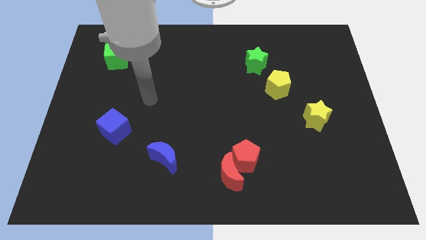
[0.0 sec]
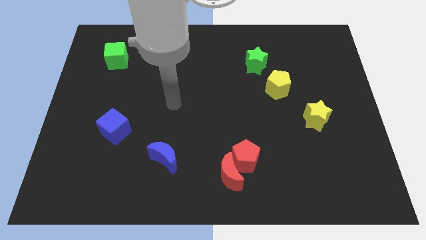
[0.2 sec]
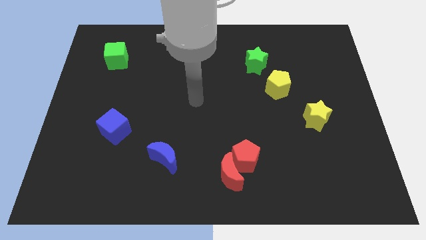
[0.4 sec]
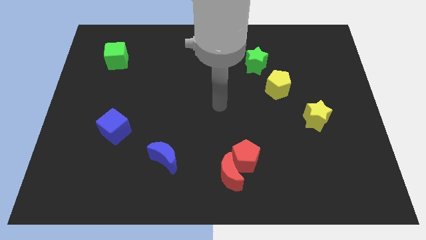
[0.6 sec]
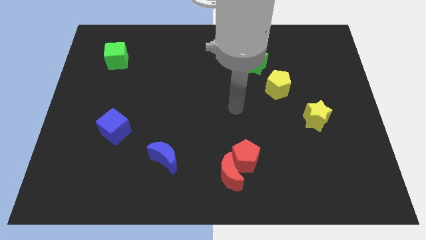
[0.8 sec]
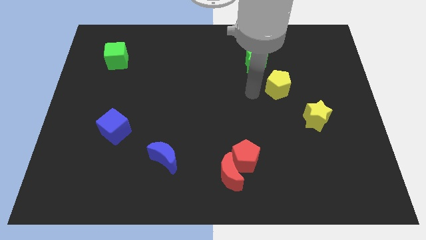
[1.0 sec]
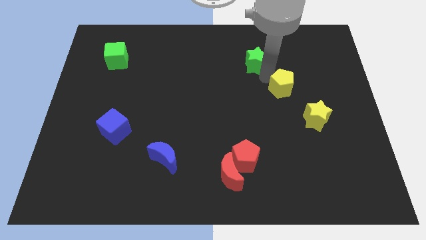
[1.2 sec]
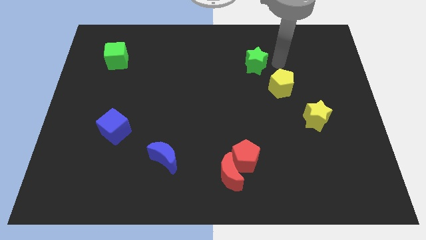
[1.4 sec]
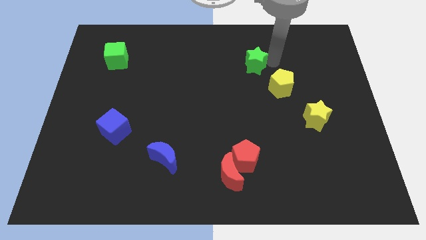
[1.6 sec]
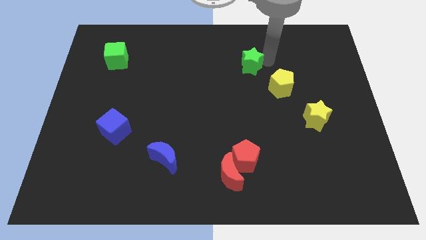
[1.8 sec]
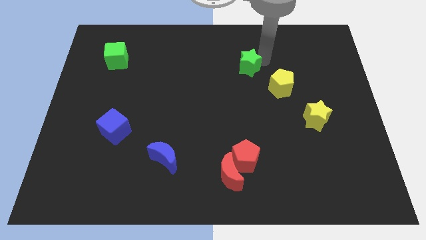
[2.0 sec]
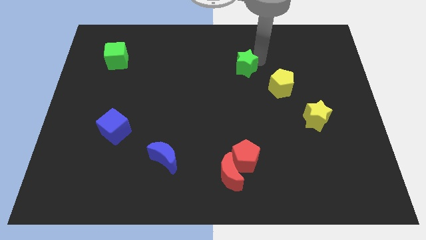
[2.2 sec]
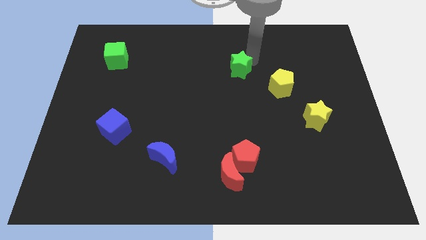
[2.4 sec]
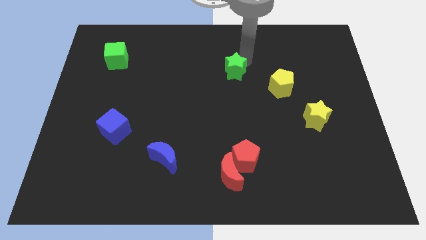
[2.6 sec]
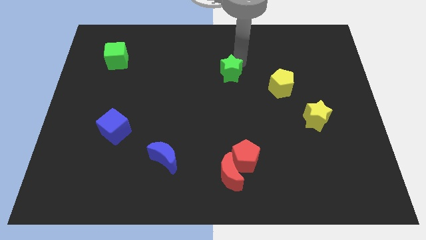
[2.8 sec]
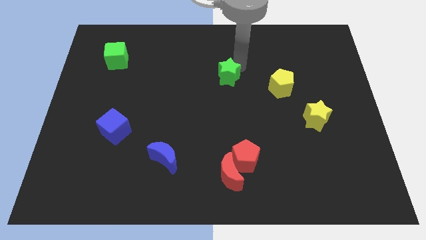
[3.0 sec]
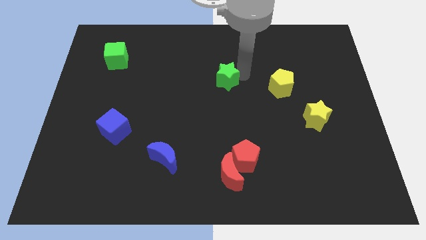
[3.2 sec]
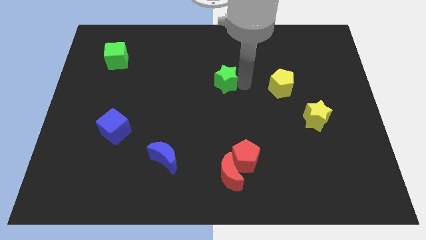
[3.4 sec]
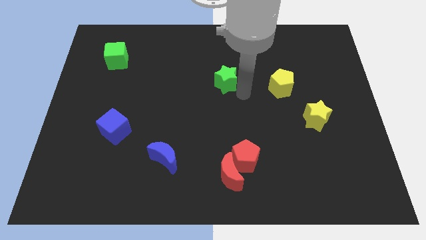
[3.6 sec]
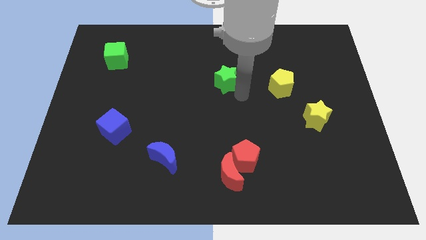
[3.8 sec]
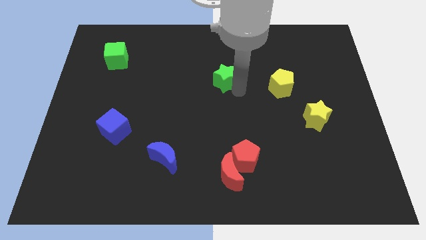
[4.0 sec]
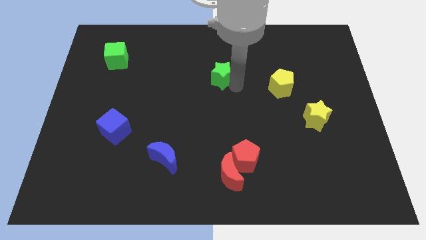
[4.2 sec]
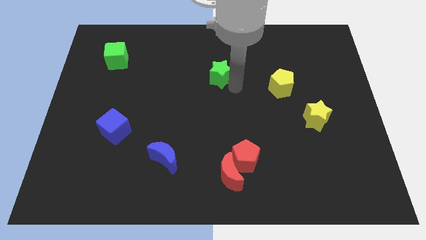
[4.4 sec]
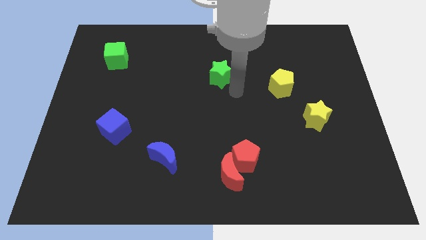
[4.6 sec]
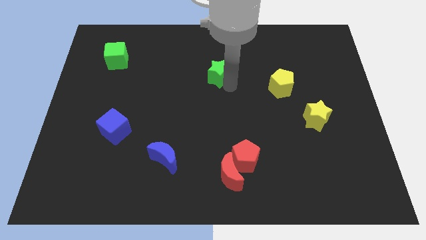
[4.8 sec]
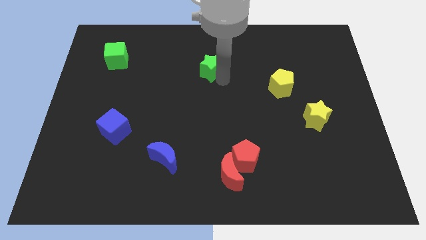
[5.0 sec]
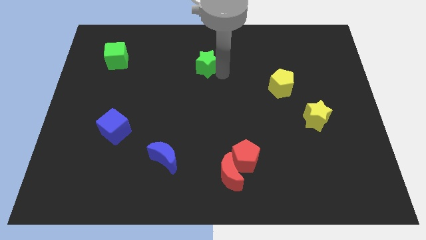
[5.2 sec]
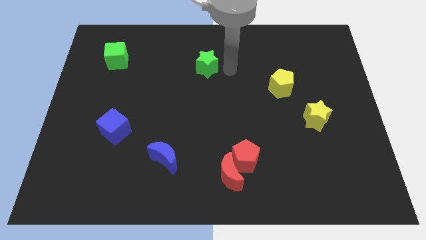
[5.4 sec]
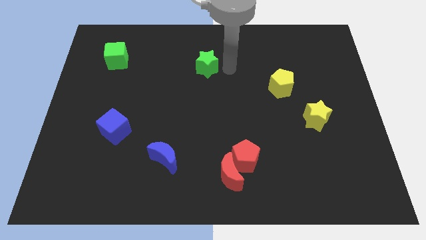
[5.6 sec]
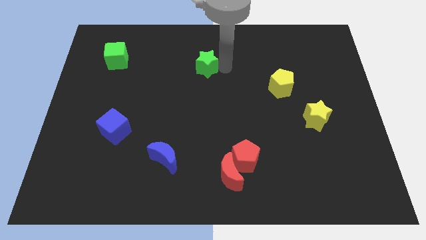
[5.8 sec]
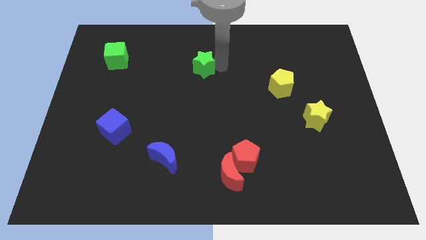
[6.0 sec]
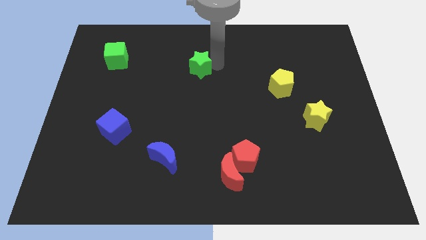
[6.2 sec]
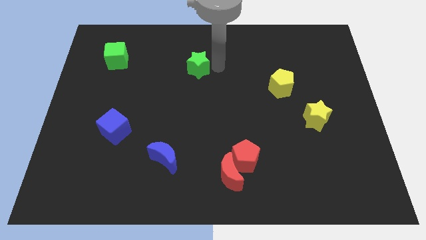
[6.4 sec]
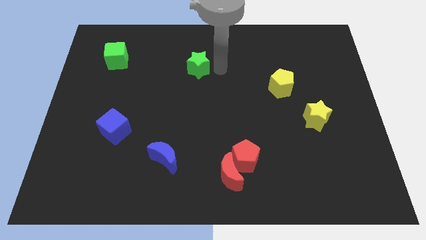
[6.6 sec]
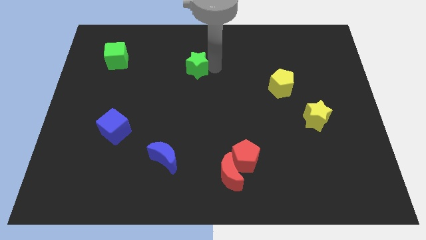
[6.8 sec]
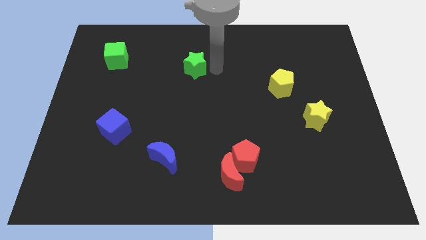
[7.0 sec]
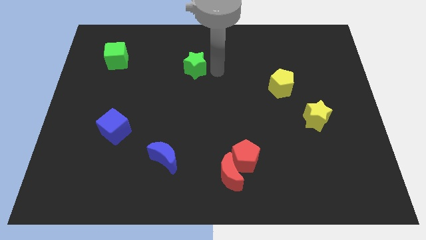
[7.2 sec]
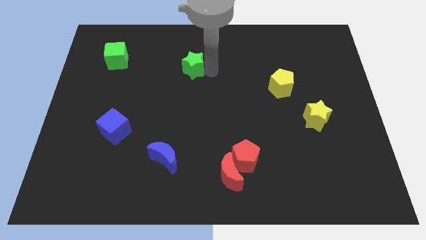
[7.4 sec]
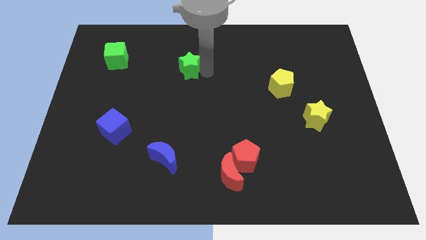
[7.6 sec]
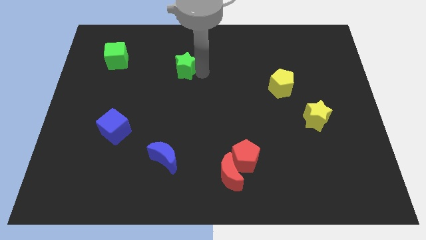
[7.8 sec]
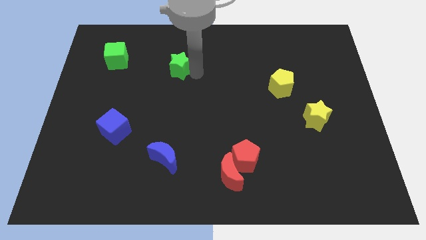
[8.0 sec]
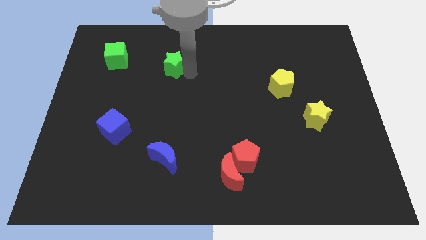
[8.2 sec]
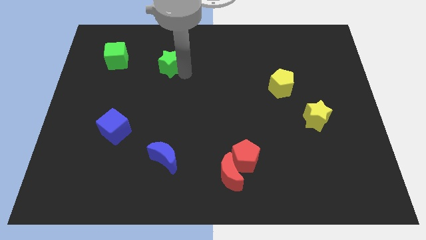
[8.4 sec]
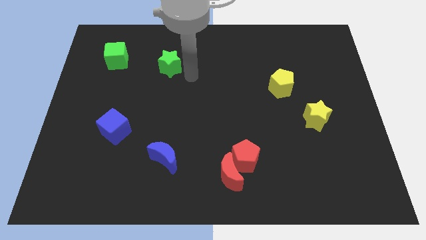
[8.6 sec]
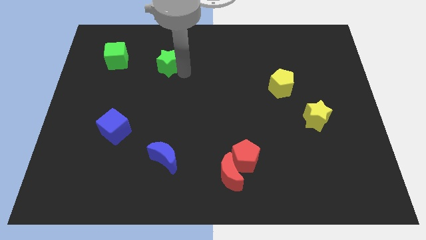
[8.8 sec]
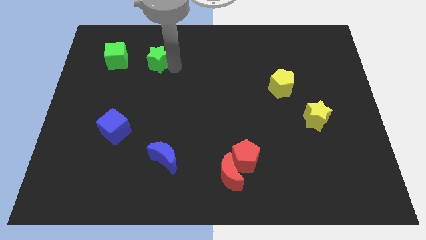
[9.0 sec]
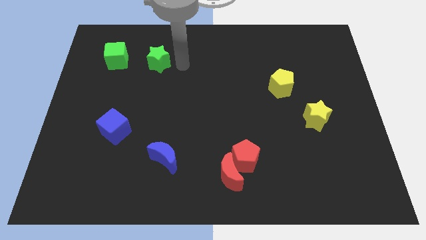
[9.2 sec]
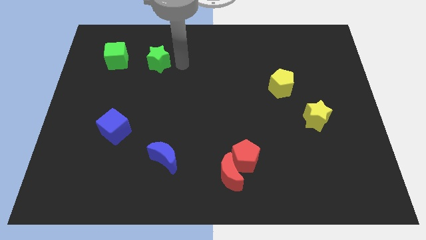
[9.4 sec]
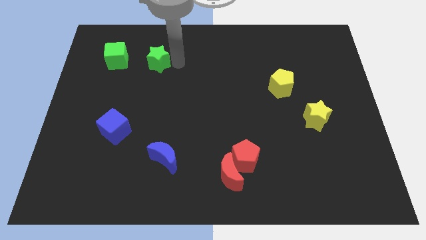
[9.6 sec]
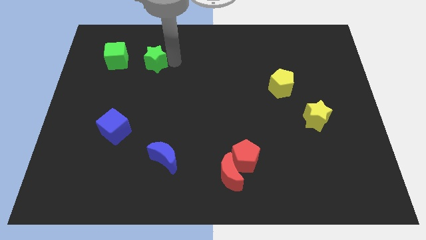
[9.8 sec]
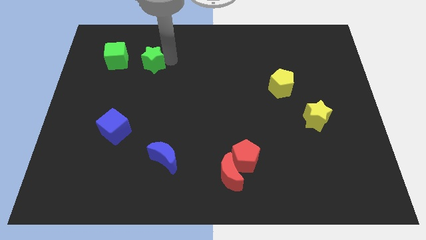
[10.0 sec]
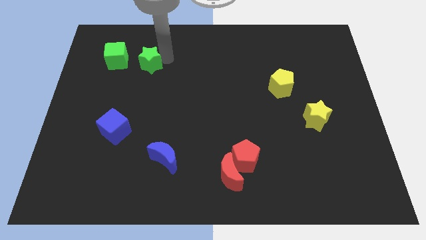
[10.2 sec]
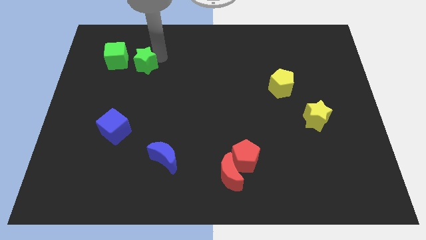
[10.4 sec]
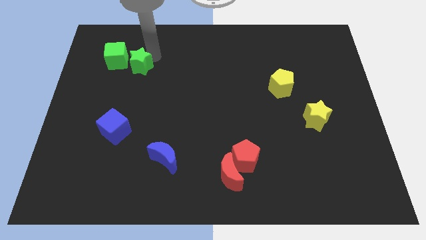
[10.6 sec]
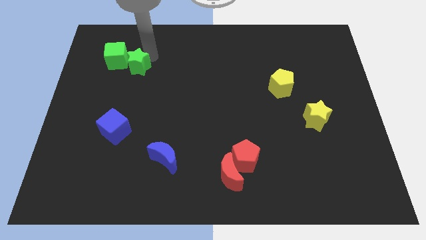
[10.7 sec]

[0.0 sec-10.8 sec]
slide the green star to the green cube

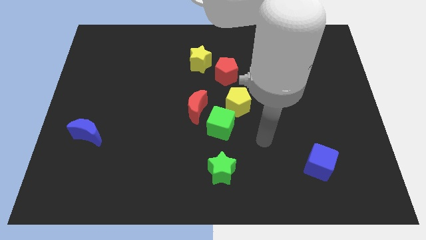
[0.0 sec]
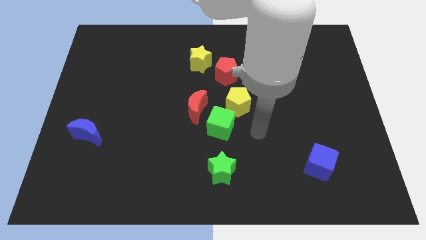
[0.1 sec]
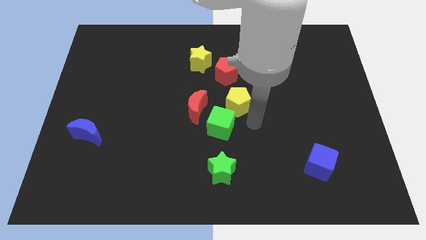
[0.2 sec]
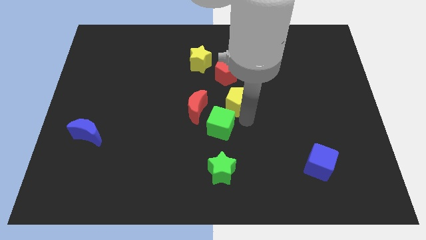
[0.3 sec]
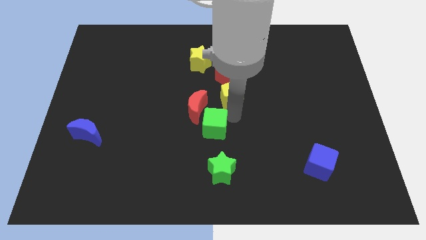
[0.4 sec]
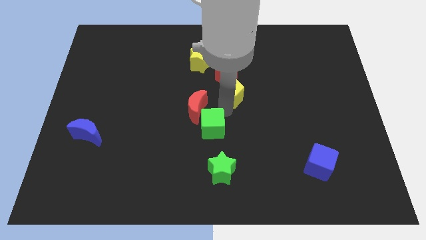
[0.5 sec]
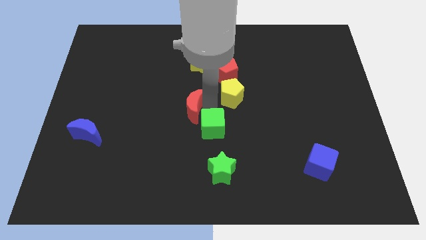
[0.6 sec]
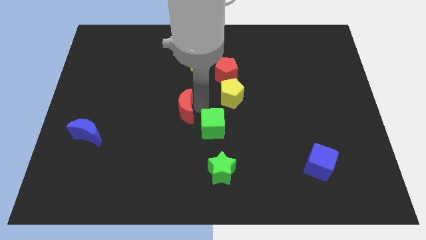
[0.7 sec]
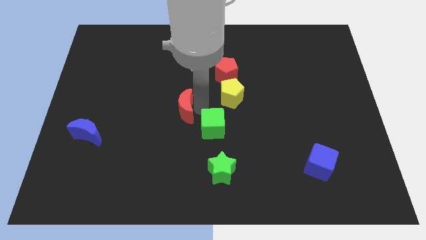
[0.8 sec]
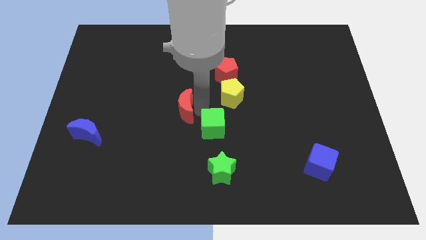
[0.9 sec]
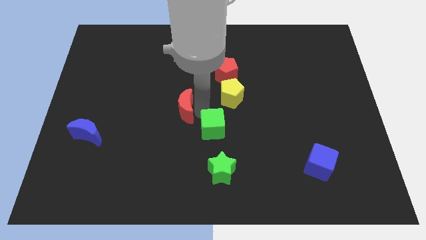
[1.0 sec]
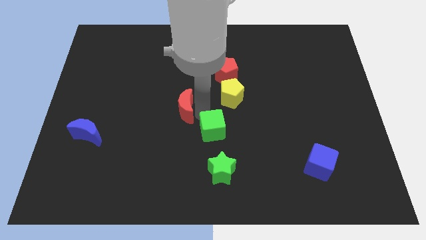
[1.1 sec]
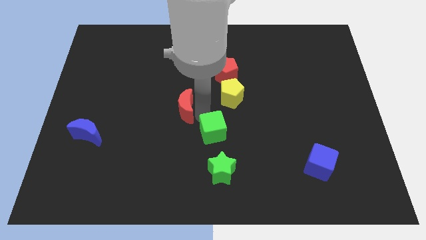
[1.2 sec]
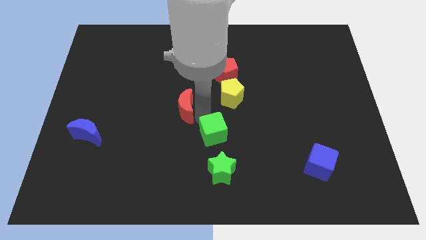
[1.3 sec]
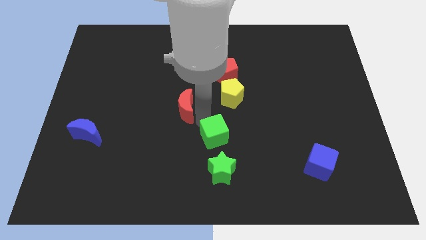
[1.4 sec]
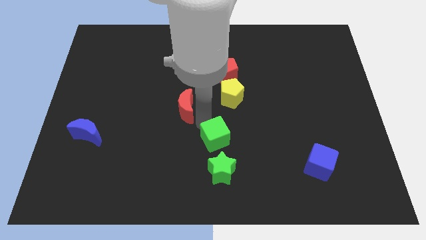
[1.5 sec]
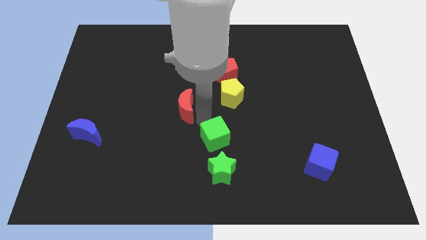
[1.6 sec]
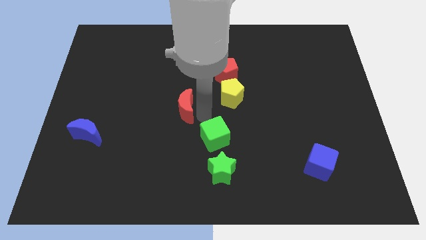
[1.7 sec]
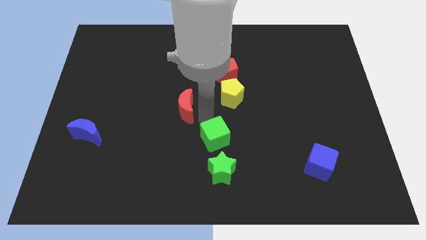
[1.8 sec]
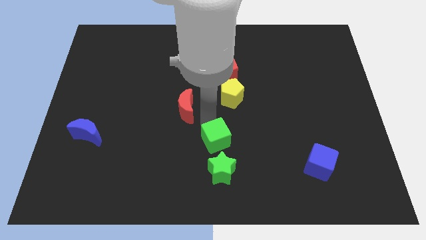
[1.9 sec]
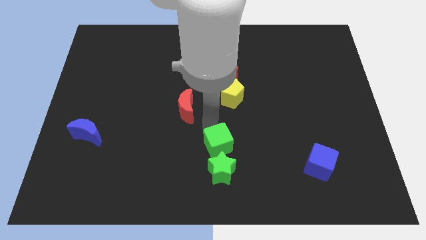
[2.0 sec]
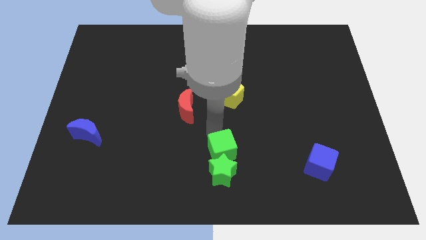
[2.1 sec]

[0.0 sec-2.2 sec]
put the green cube close to the green star
